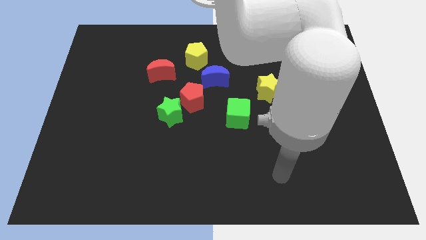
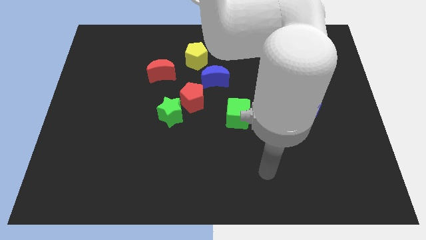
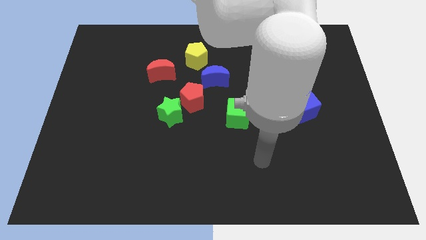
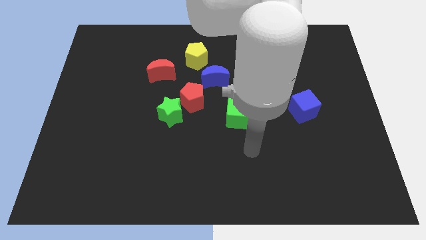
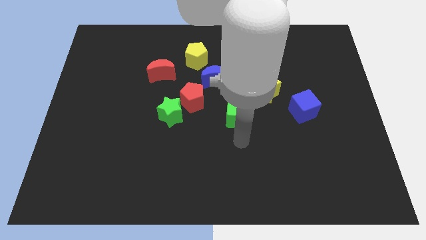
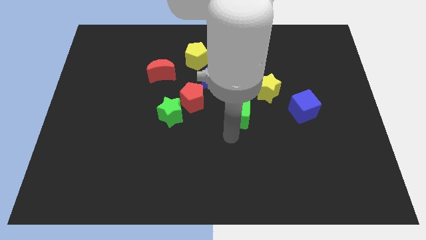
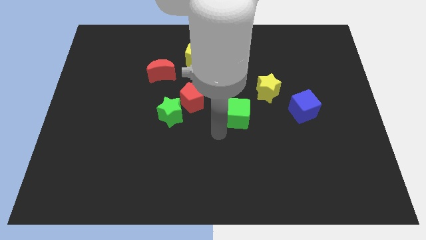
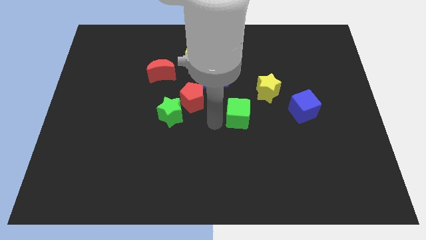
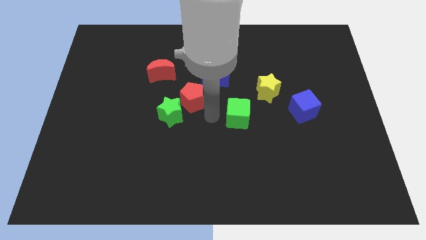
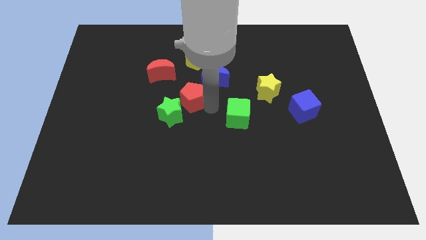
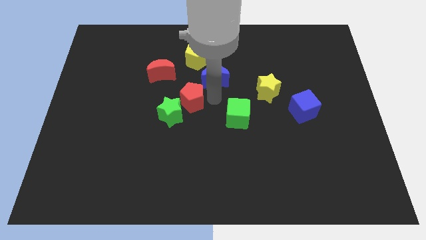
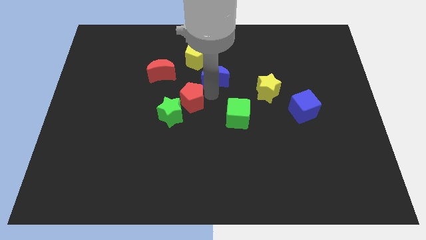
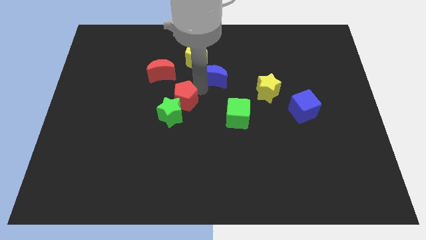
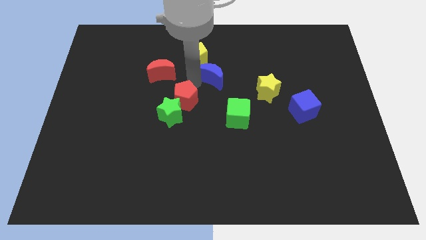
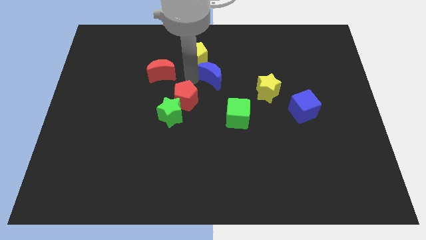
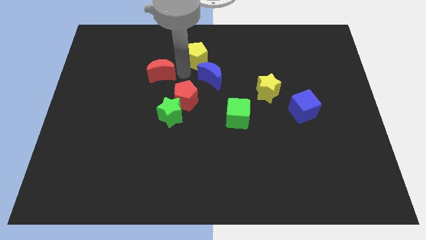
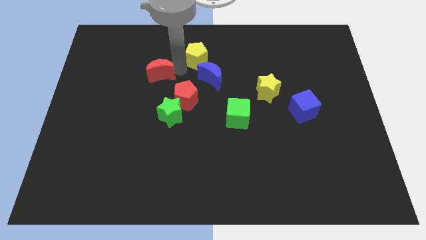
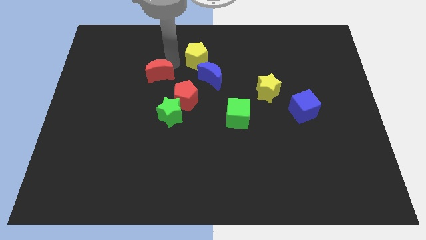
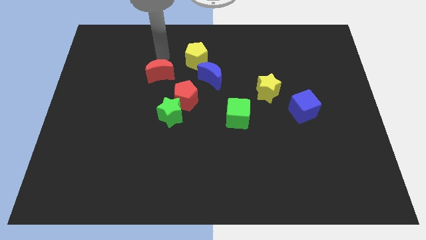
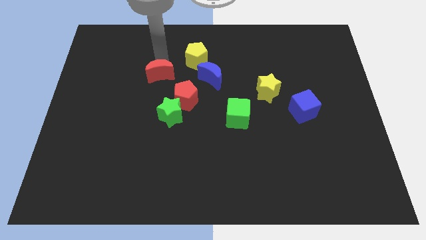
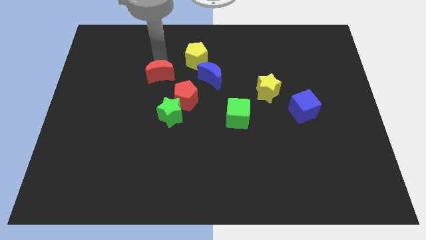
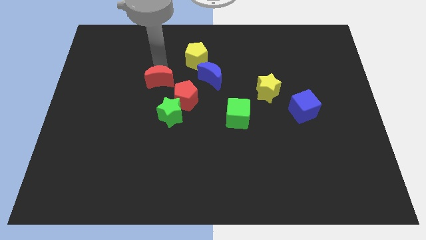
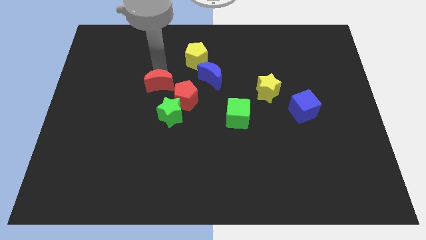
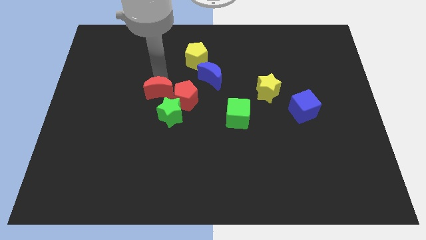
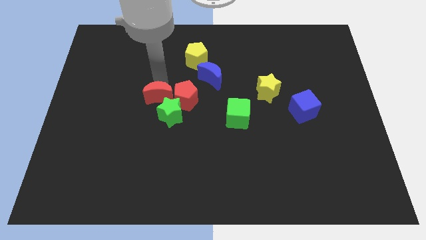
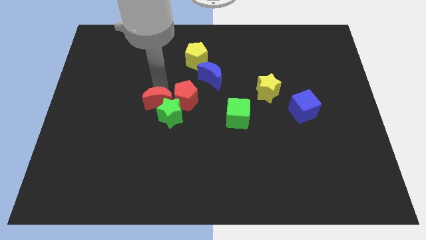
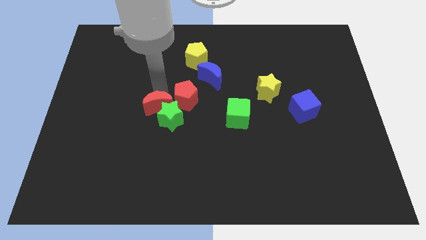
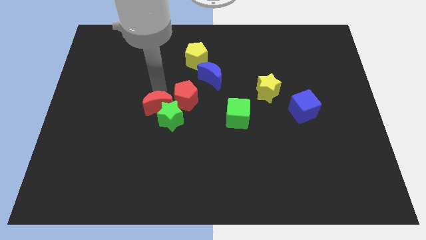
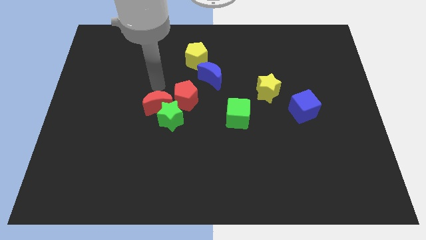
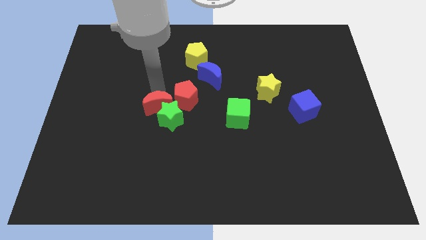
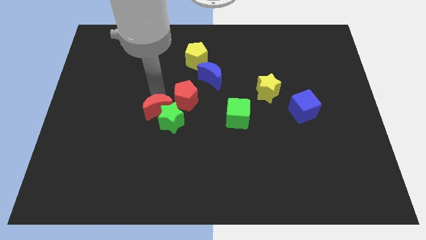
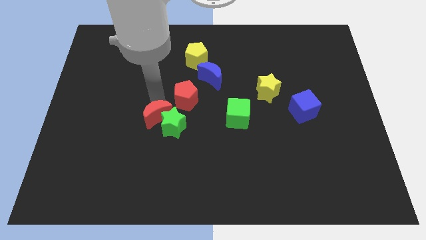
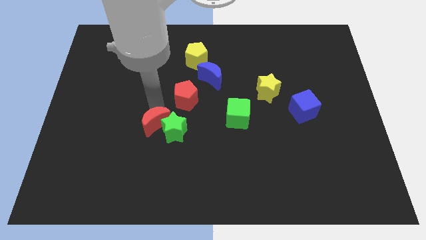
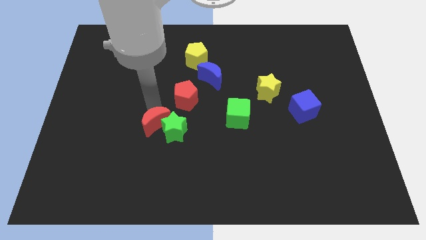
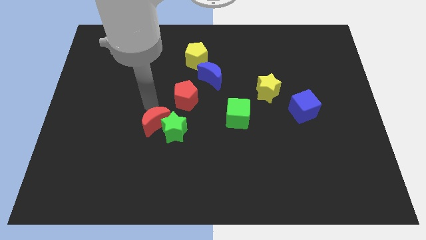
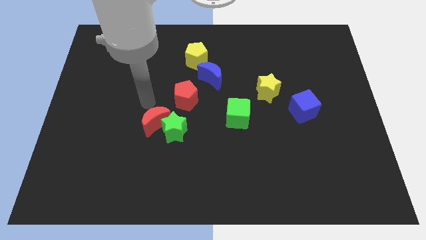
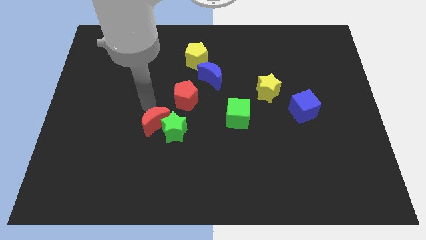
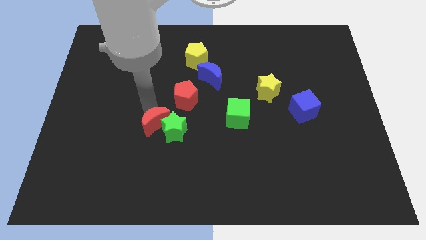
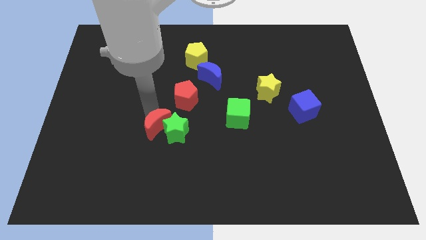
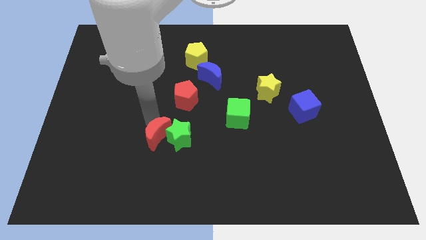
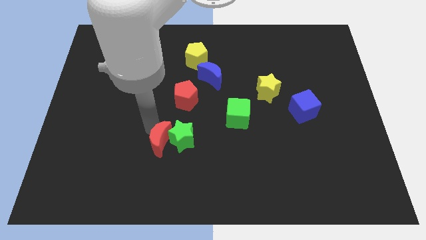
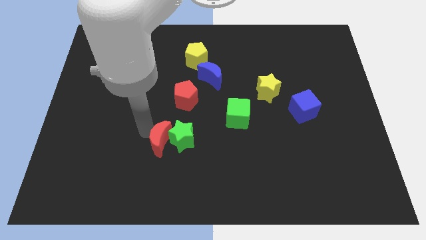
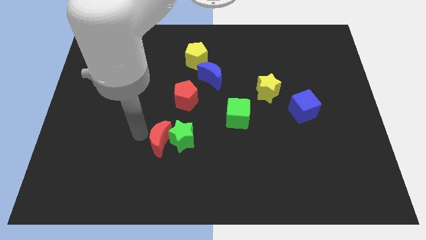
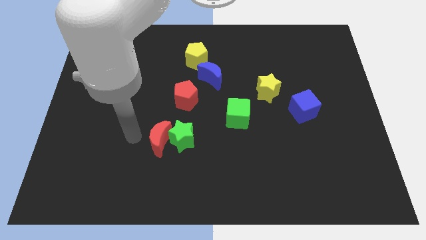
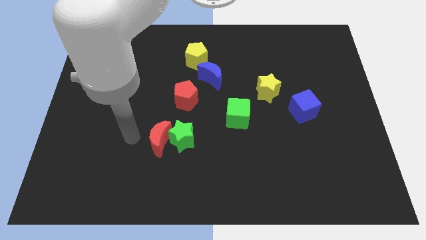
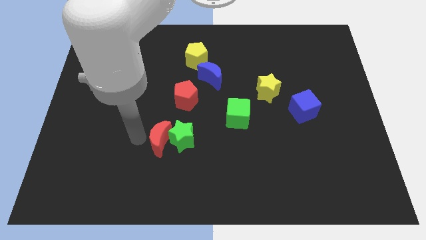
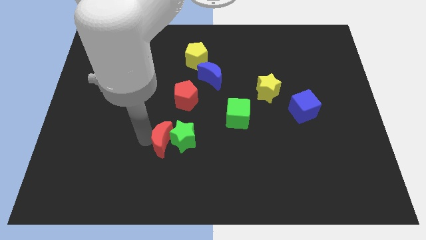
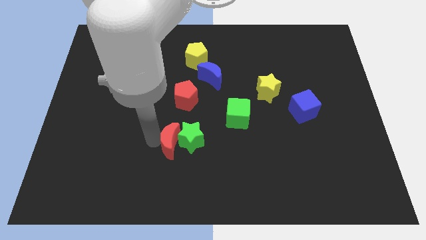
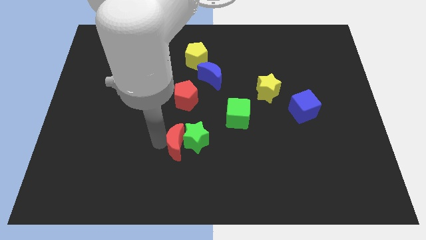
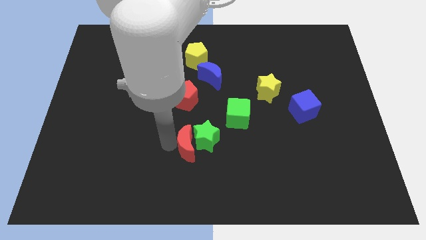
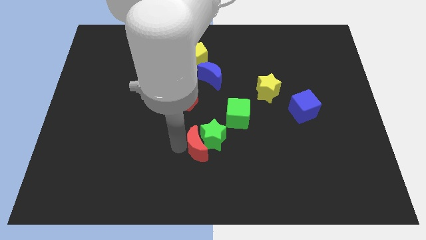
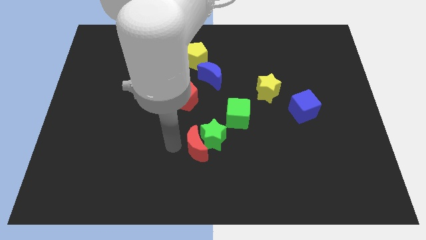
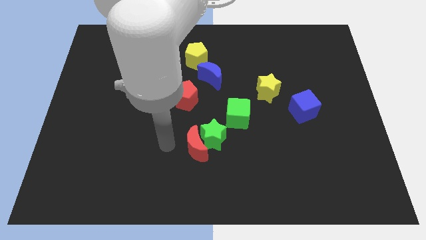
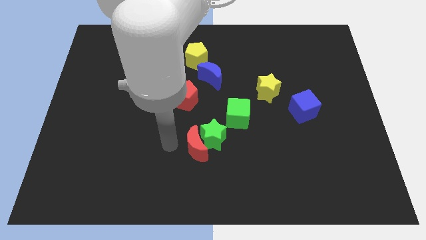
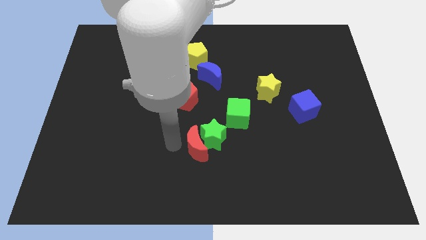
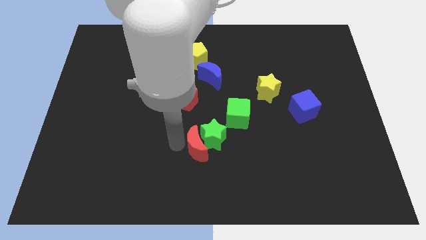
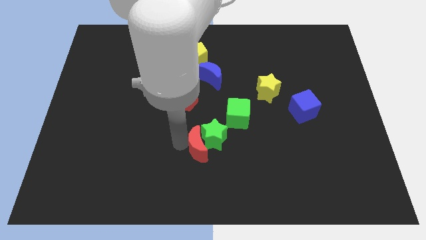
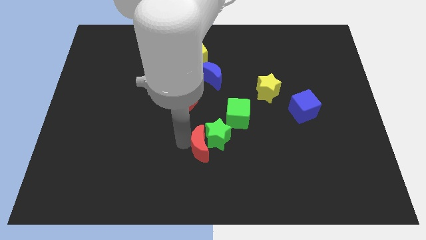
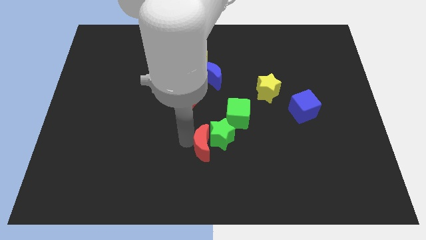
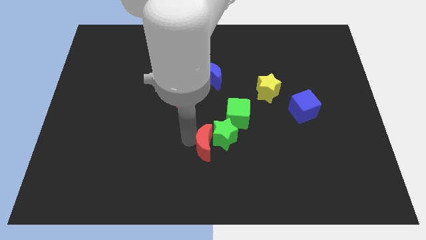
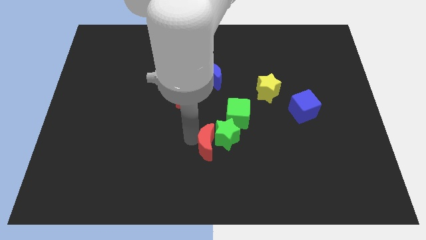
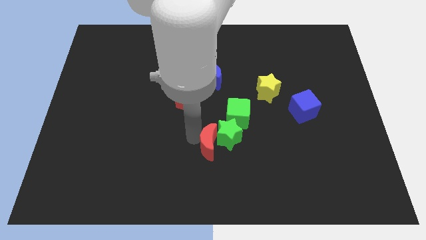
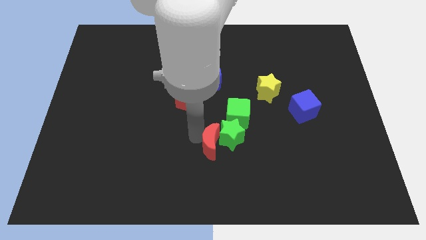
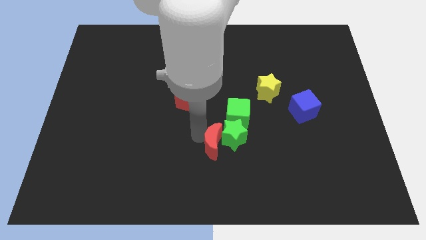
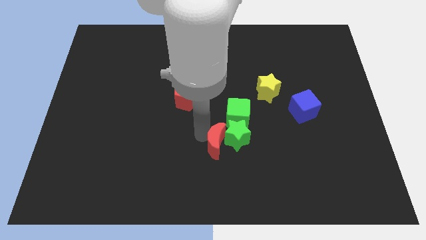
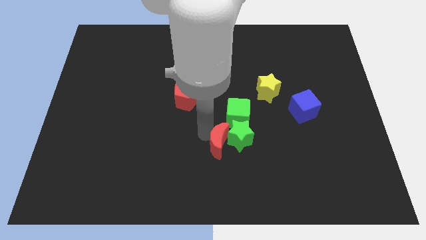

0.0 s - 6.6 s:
push the red moon to the bottom side of the green cube

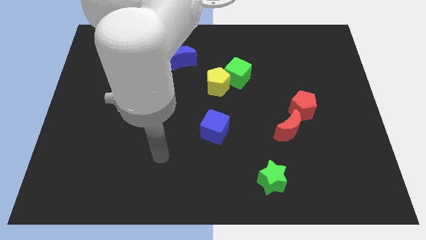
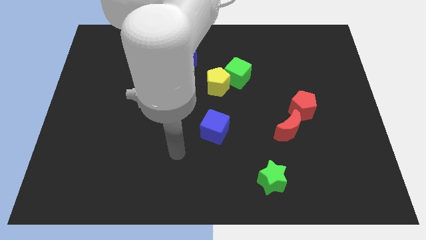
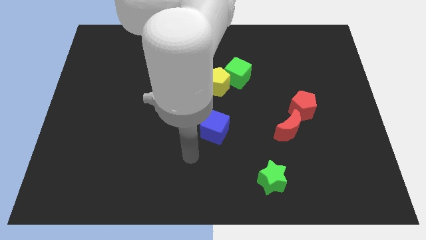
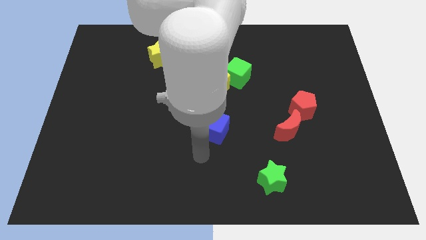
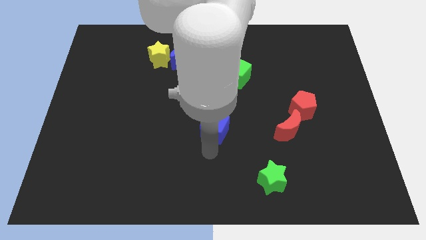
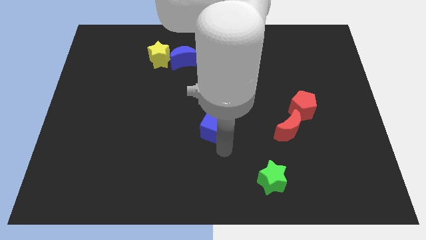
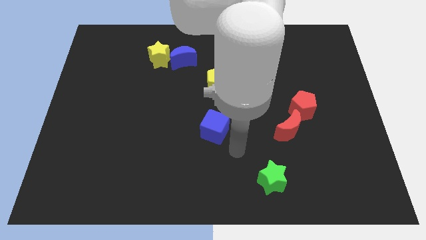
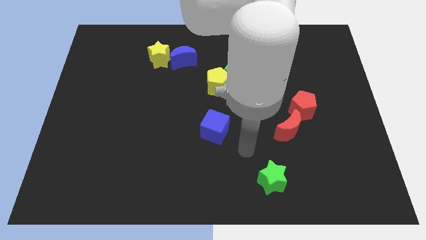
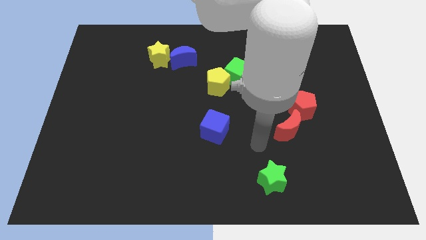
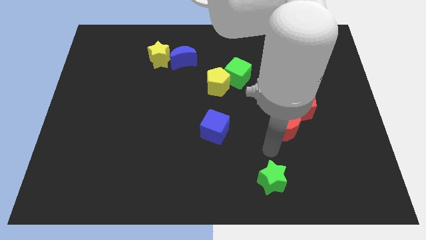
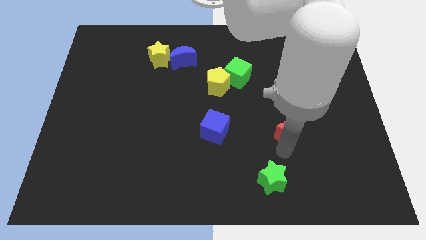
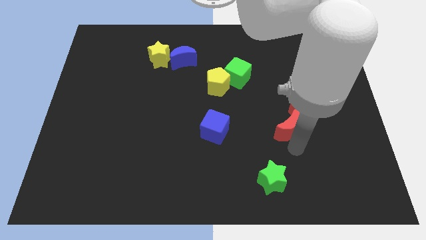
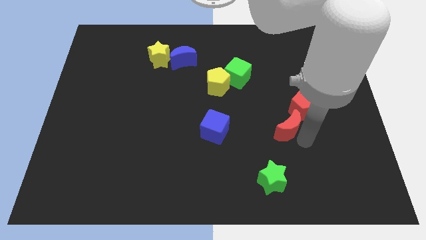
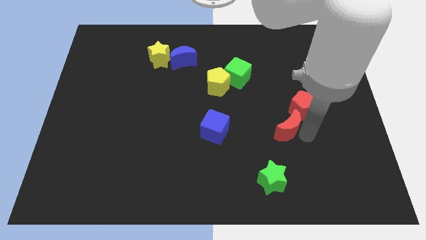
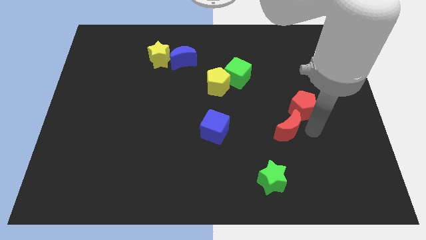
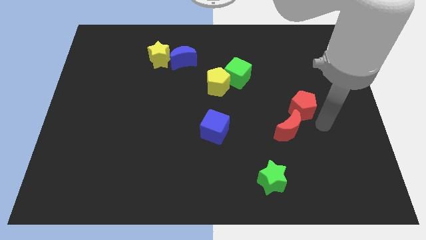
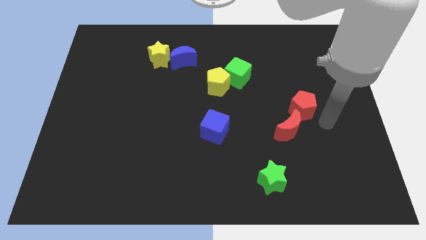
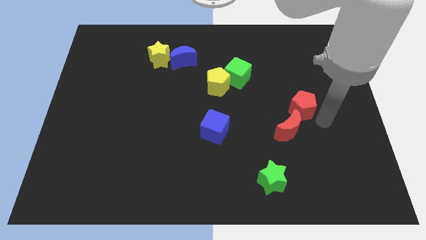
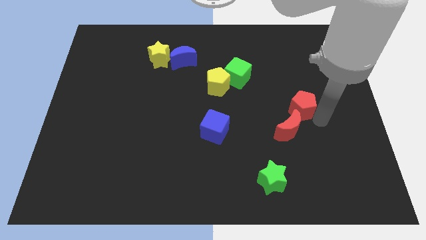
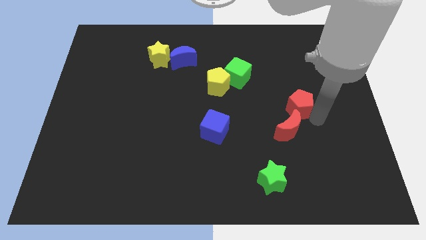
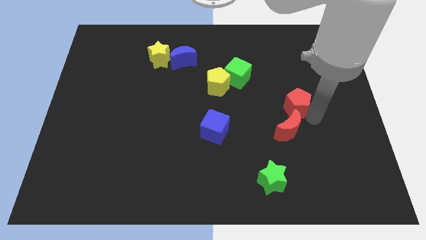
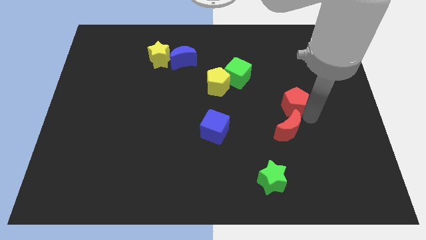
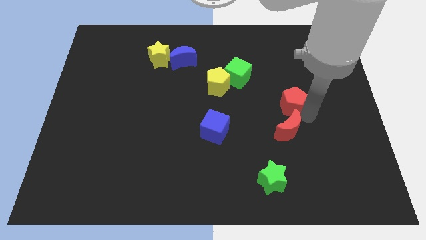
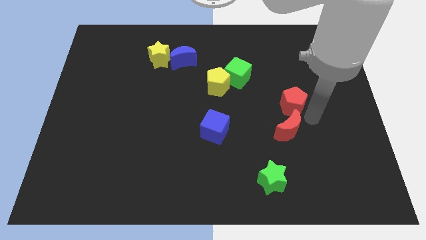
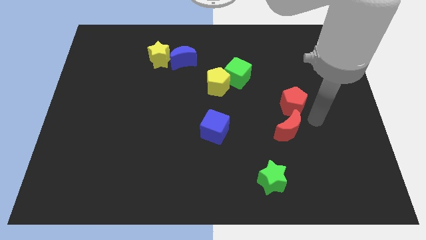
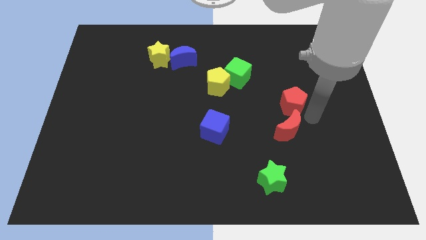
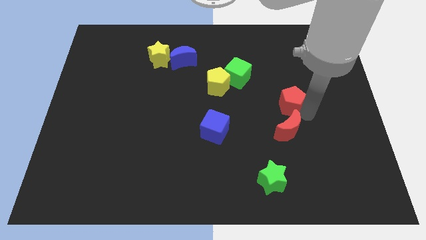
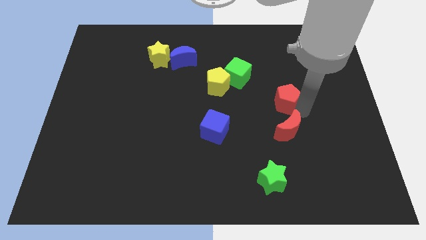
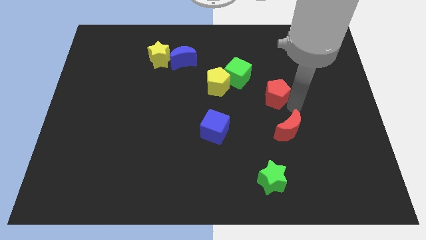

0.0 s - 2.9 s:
put the red pentagon right of the yellow pentagon
